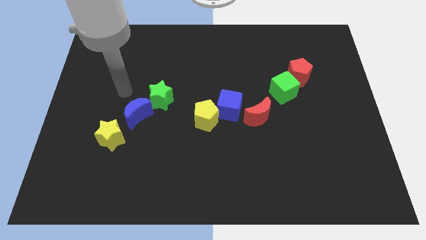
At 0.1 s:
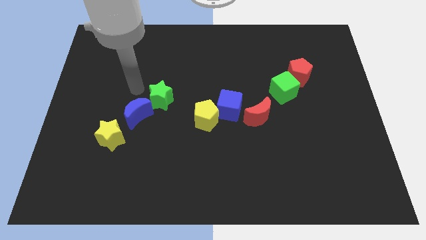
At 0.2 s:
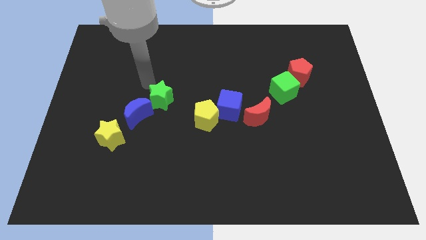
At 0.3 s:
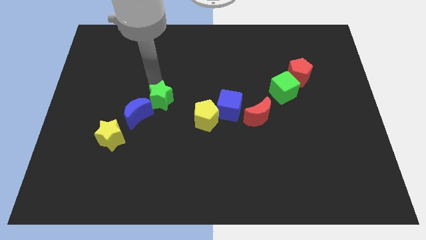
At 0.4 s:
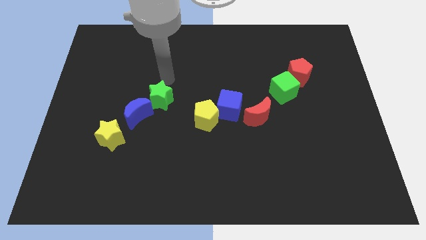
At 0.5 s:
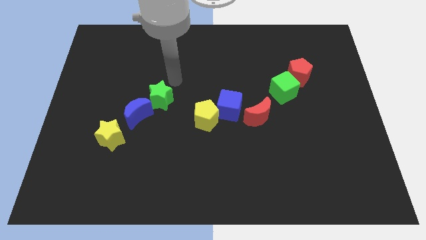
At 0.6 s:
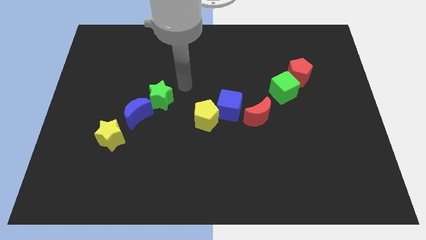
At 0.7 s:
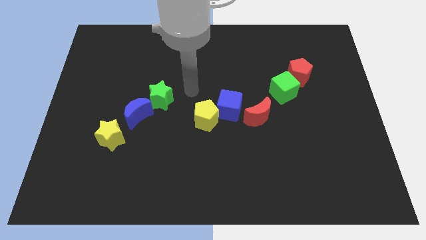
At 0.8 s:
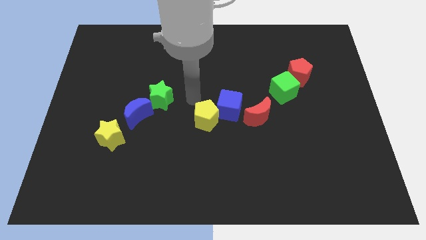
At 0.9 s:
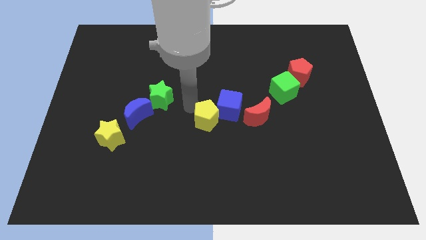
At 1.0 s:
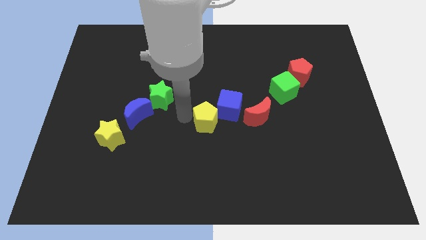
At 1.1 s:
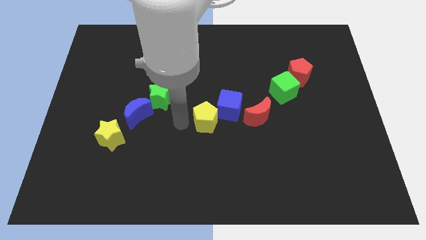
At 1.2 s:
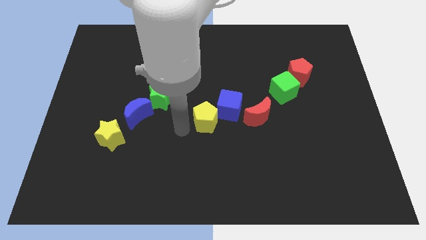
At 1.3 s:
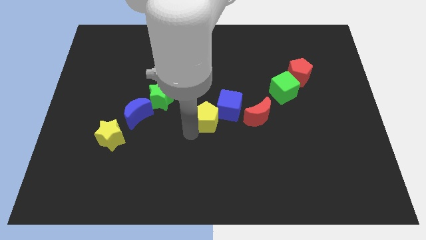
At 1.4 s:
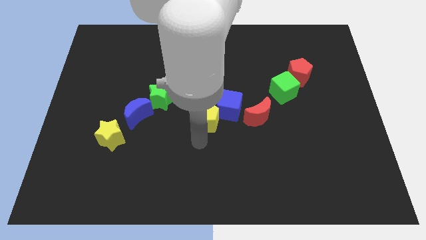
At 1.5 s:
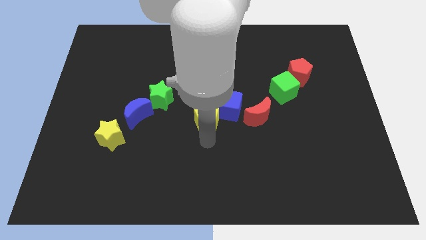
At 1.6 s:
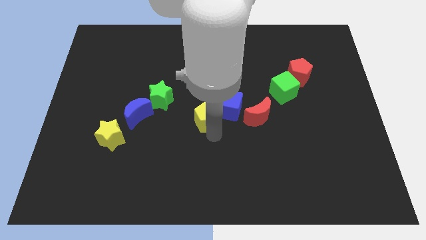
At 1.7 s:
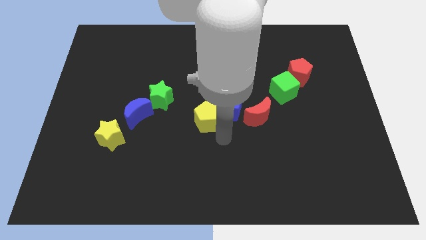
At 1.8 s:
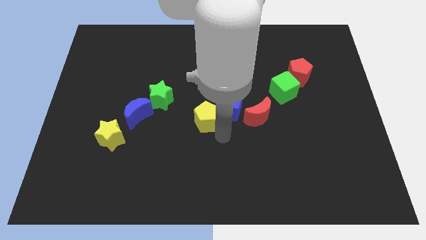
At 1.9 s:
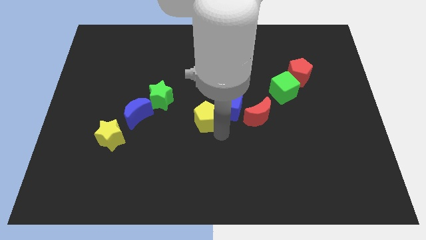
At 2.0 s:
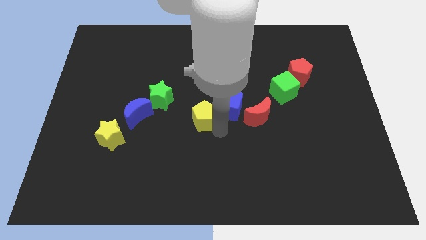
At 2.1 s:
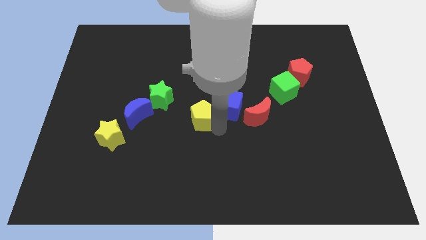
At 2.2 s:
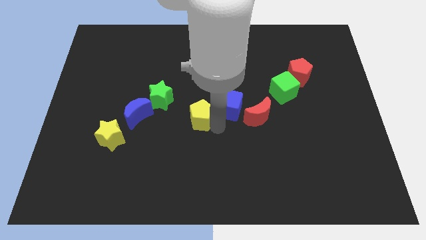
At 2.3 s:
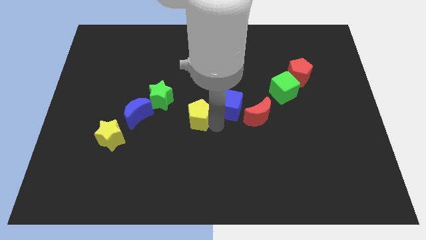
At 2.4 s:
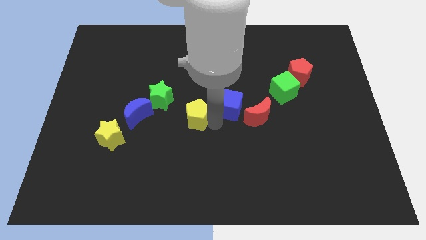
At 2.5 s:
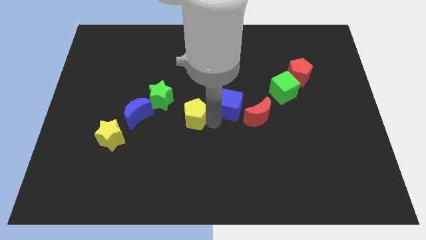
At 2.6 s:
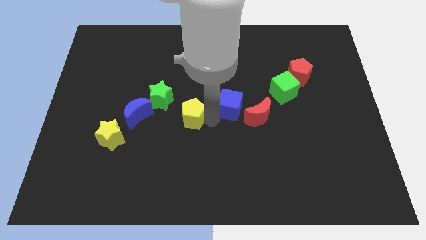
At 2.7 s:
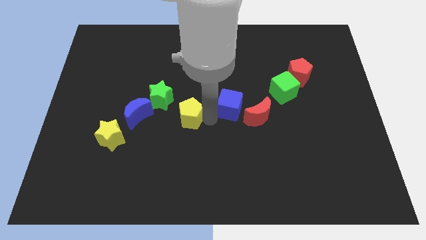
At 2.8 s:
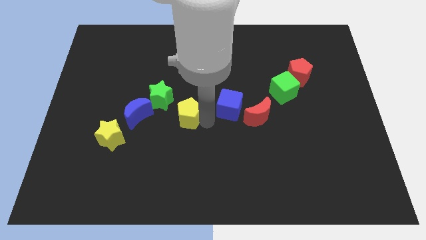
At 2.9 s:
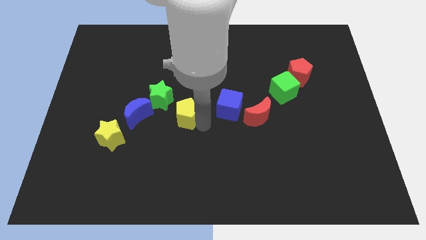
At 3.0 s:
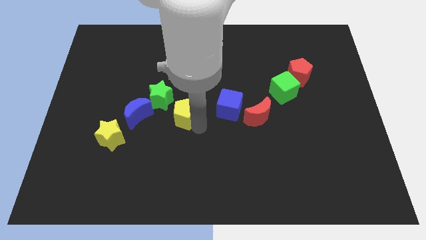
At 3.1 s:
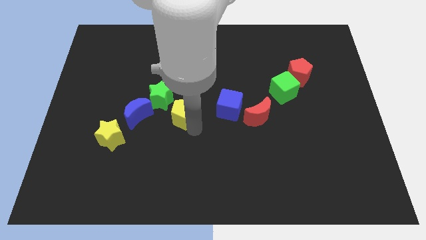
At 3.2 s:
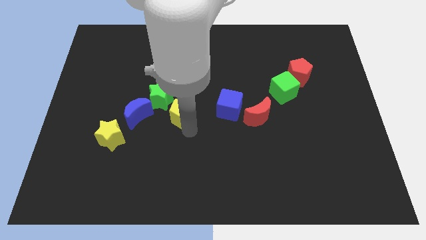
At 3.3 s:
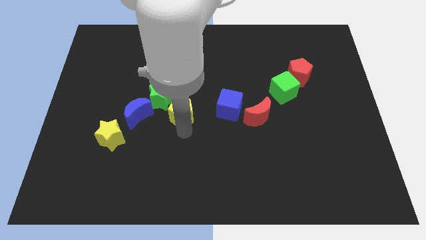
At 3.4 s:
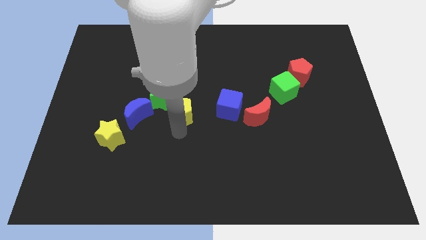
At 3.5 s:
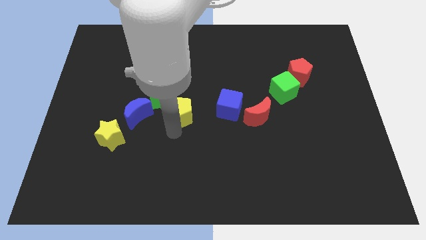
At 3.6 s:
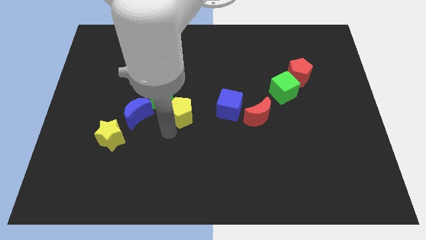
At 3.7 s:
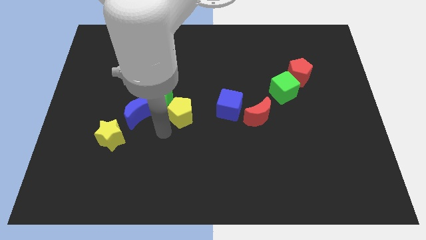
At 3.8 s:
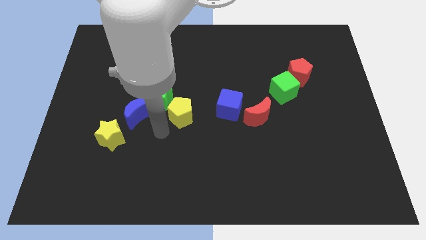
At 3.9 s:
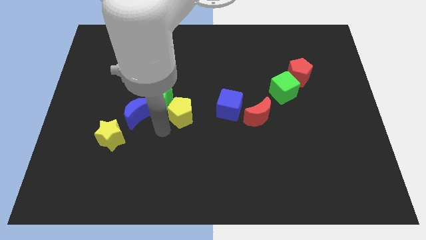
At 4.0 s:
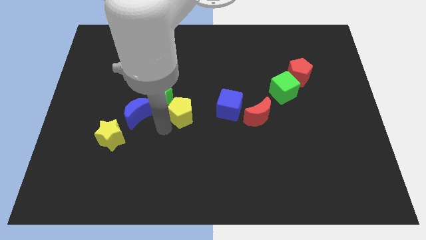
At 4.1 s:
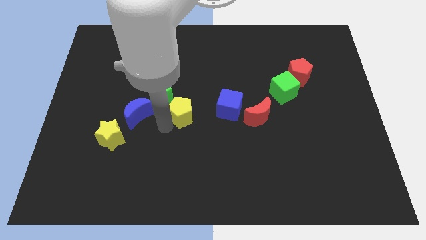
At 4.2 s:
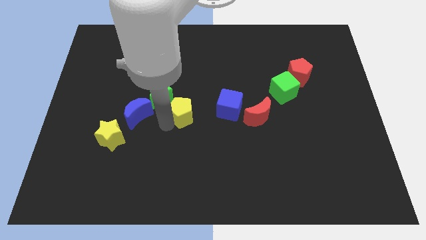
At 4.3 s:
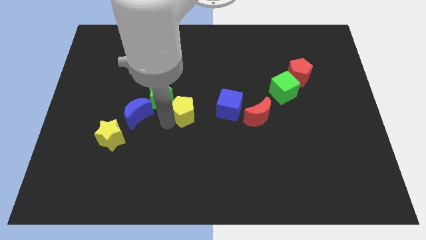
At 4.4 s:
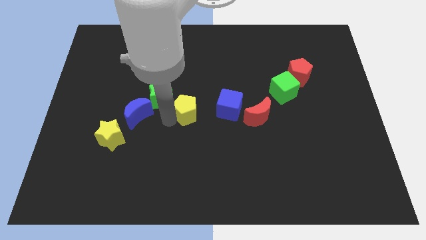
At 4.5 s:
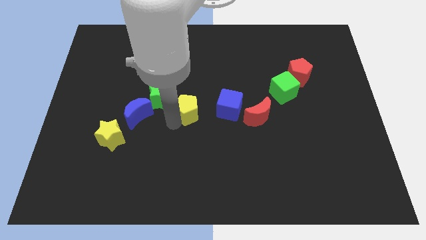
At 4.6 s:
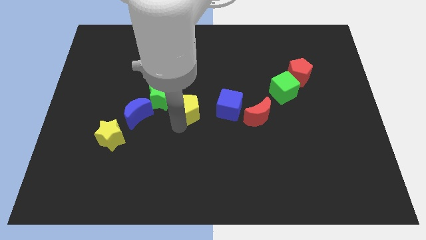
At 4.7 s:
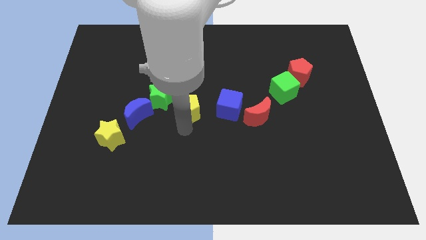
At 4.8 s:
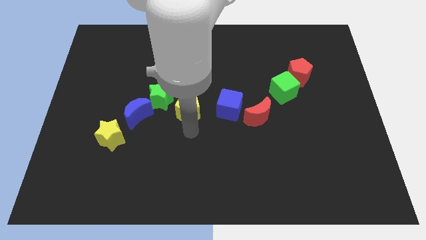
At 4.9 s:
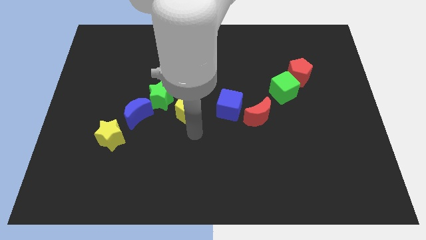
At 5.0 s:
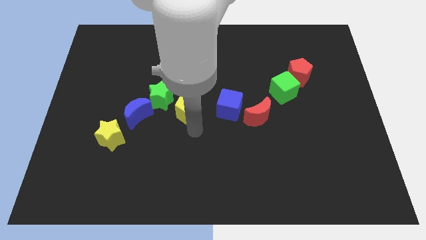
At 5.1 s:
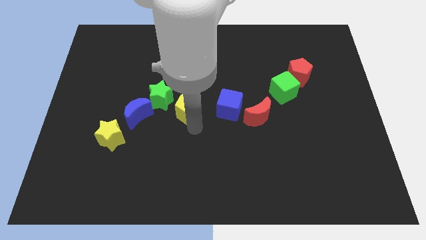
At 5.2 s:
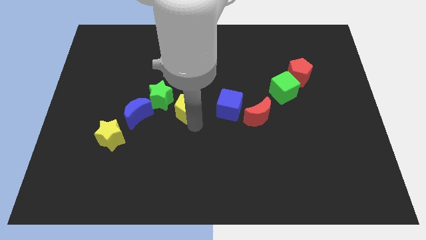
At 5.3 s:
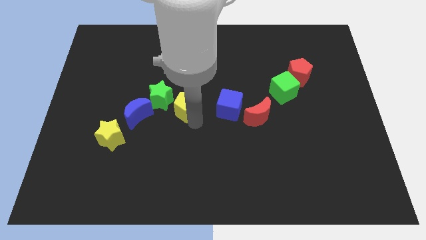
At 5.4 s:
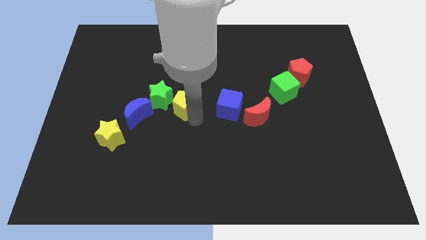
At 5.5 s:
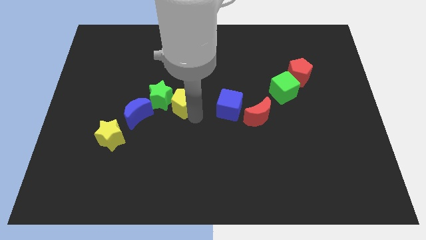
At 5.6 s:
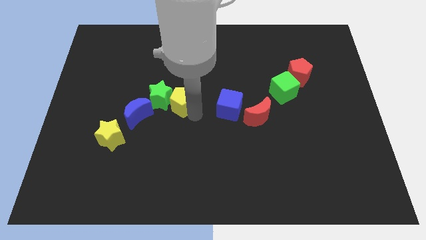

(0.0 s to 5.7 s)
move the yellow pentagon up and to the left a little

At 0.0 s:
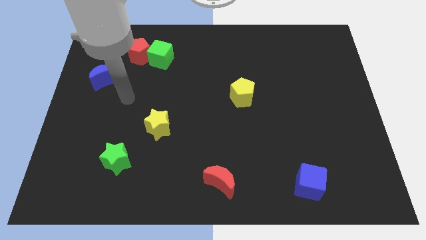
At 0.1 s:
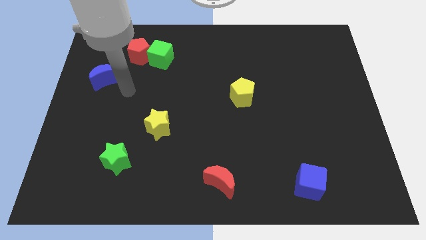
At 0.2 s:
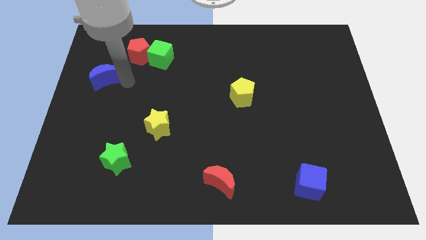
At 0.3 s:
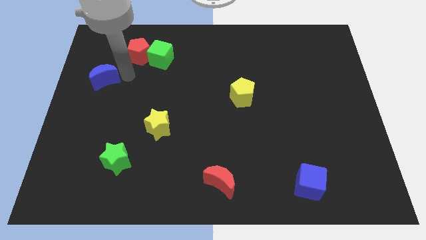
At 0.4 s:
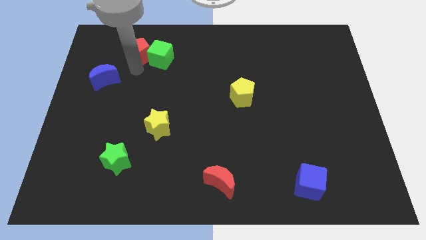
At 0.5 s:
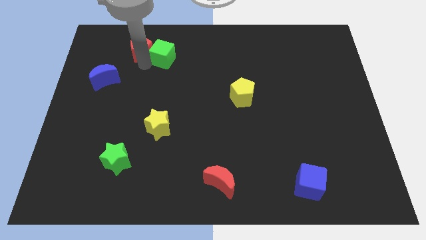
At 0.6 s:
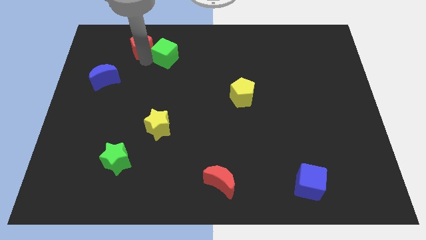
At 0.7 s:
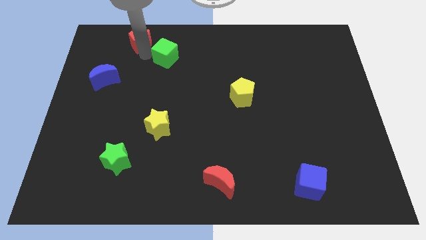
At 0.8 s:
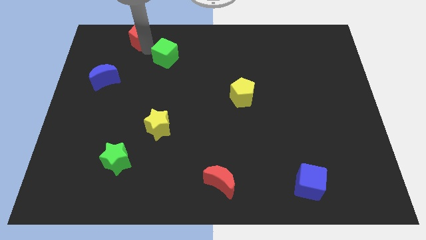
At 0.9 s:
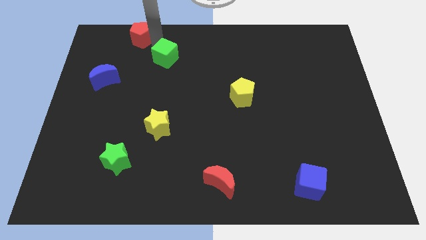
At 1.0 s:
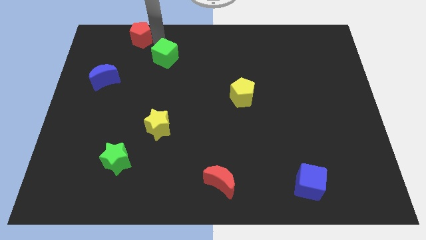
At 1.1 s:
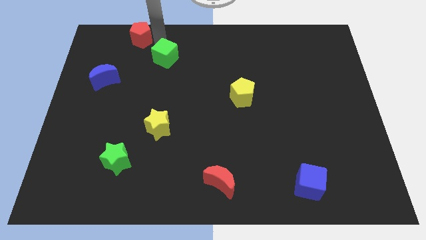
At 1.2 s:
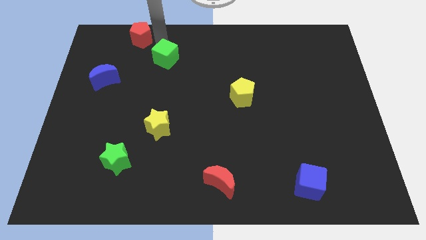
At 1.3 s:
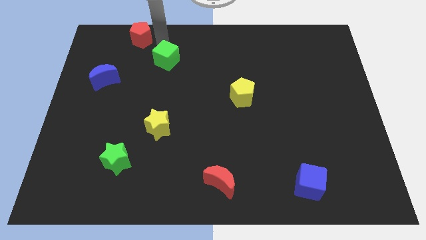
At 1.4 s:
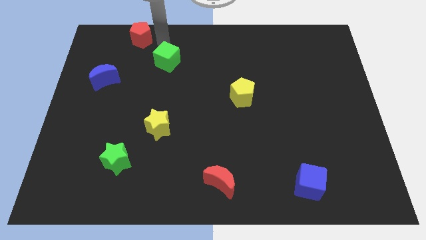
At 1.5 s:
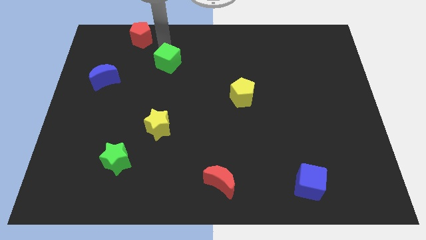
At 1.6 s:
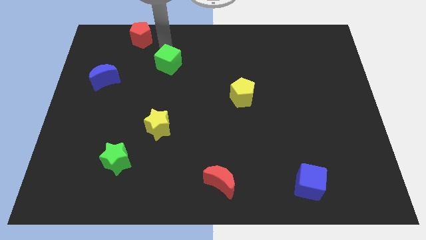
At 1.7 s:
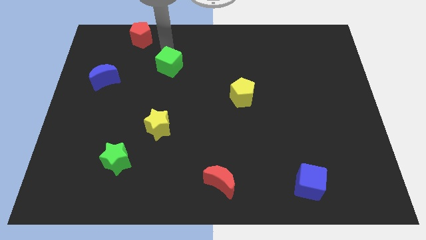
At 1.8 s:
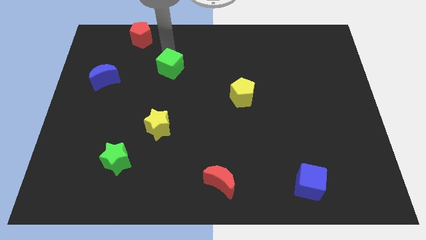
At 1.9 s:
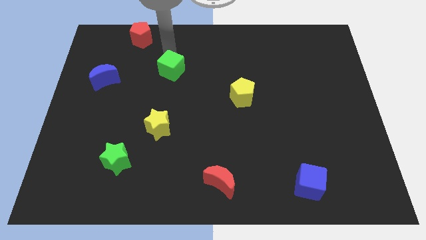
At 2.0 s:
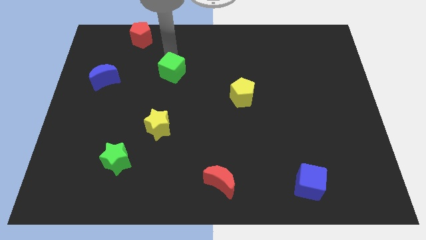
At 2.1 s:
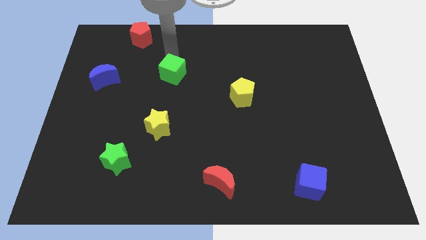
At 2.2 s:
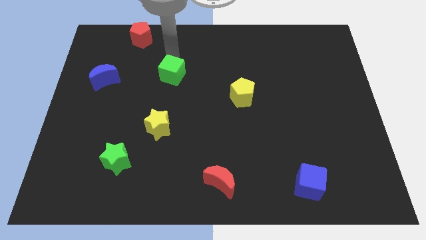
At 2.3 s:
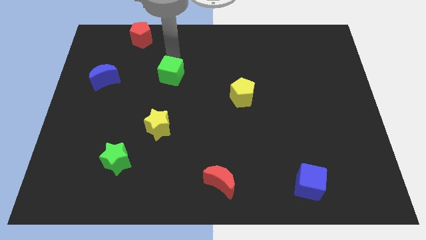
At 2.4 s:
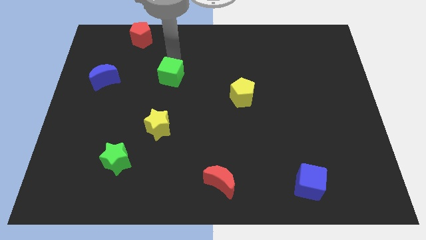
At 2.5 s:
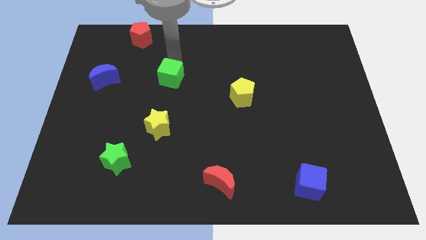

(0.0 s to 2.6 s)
slightly slide the green cube down and right diagonally
